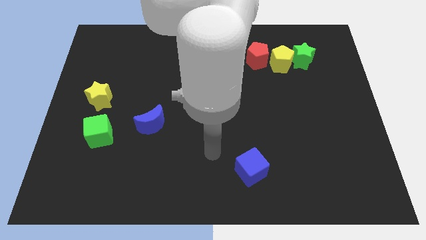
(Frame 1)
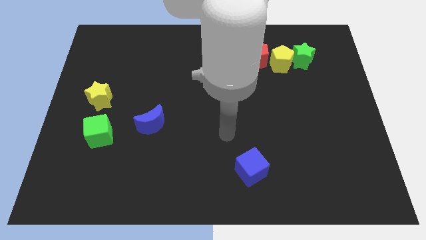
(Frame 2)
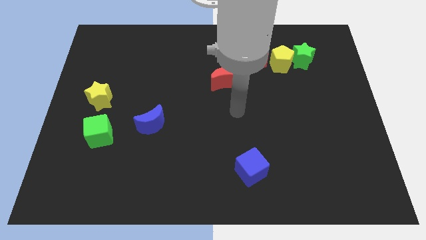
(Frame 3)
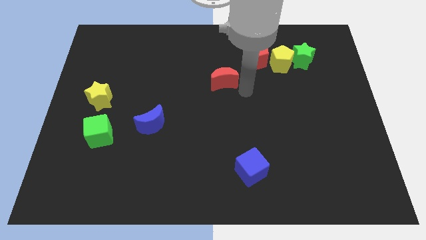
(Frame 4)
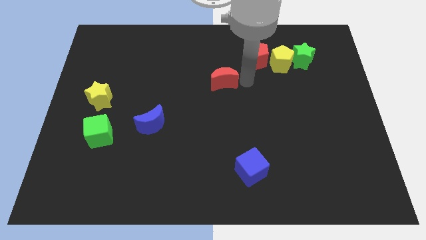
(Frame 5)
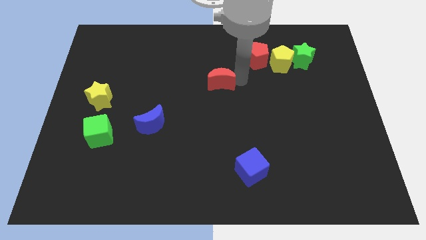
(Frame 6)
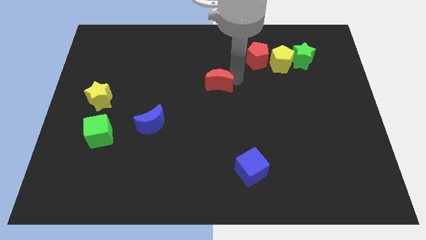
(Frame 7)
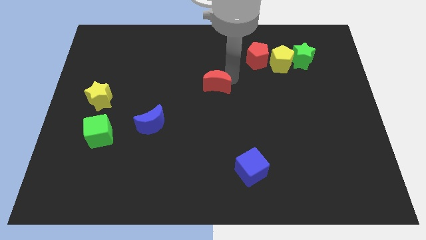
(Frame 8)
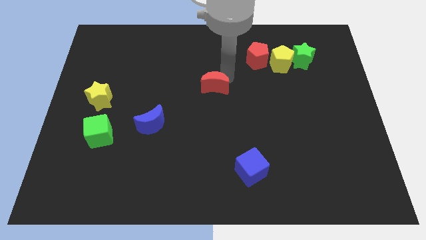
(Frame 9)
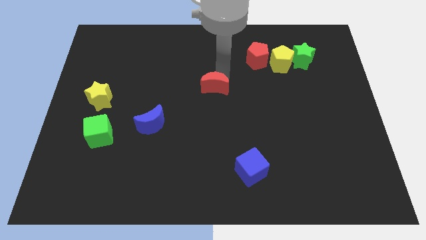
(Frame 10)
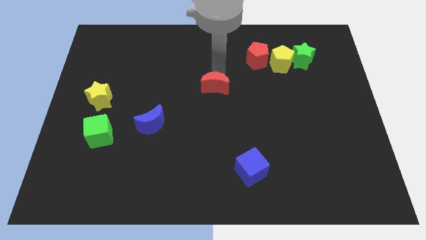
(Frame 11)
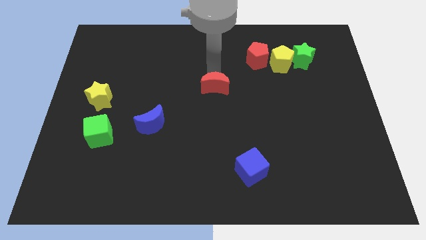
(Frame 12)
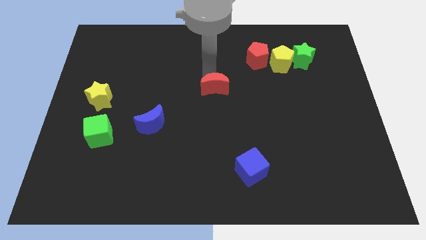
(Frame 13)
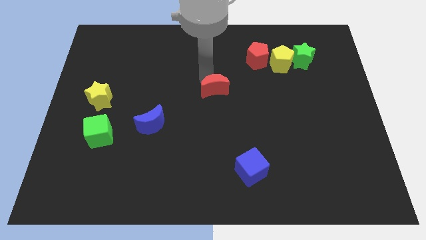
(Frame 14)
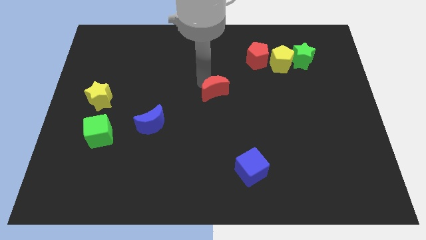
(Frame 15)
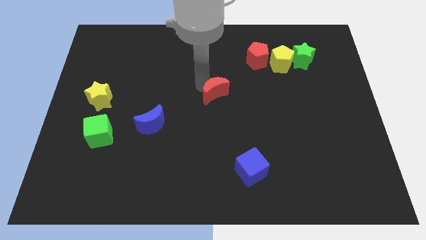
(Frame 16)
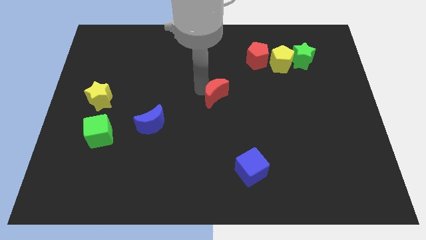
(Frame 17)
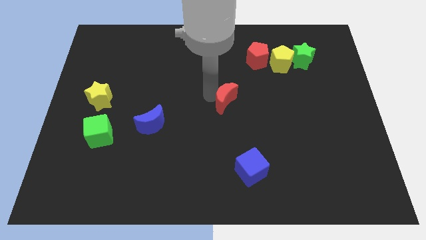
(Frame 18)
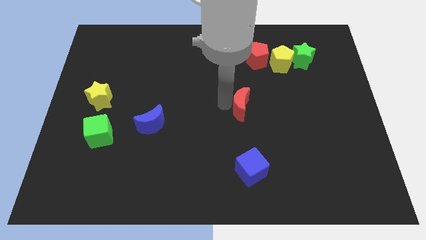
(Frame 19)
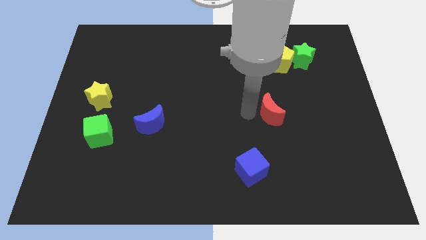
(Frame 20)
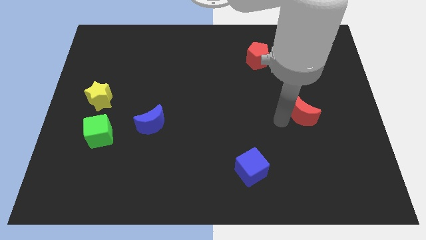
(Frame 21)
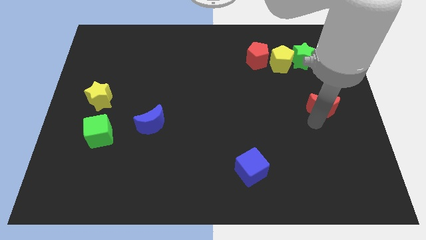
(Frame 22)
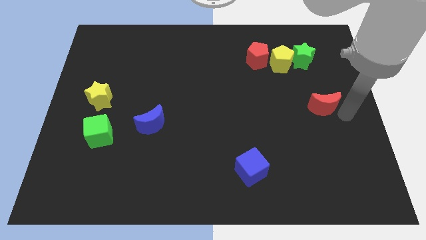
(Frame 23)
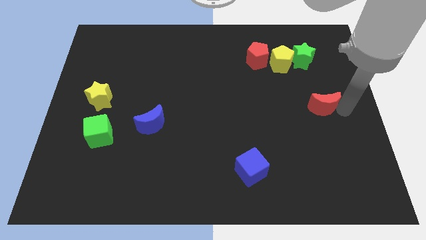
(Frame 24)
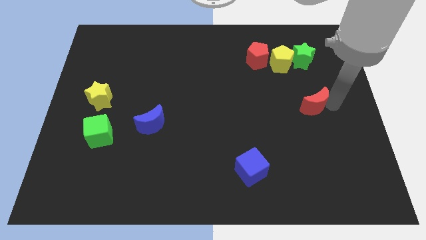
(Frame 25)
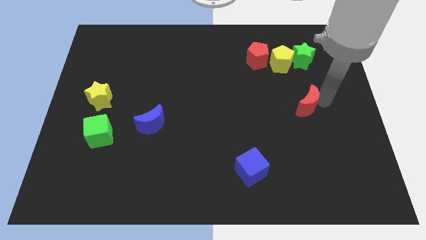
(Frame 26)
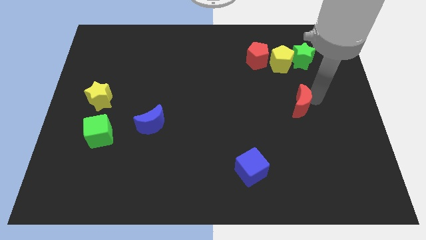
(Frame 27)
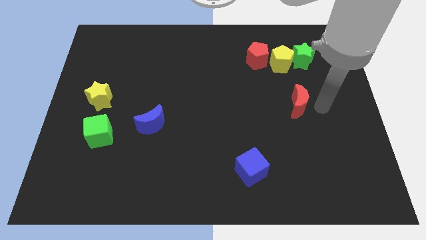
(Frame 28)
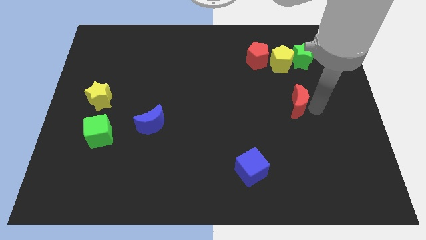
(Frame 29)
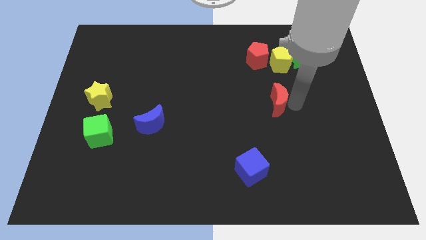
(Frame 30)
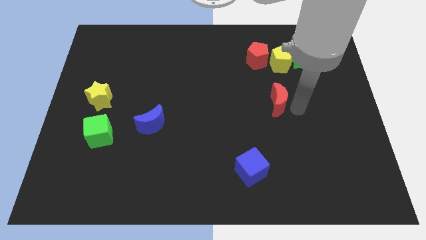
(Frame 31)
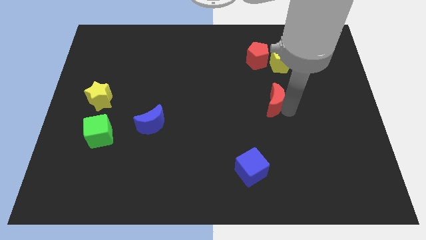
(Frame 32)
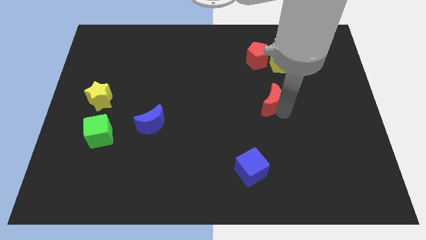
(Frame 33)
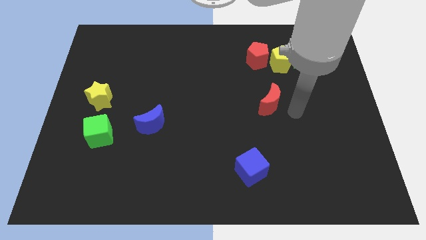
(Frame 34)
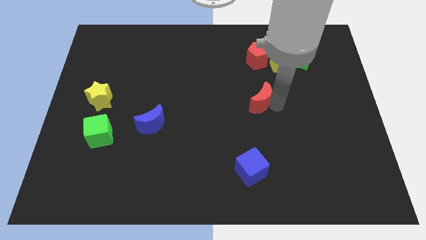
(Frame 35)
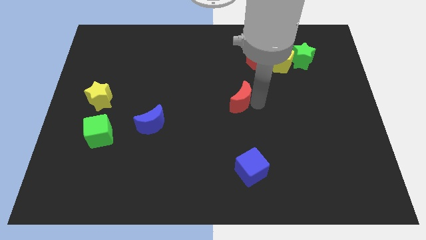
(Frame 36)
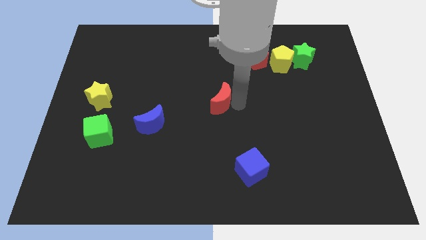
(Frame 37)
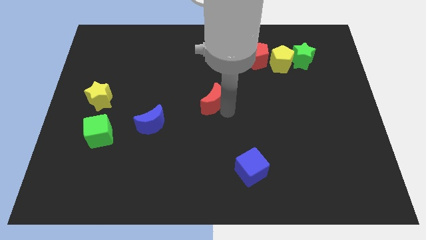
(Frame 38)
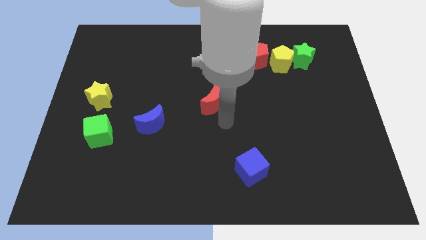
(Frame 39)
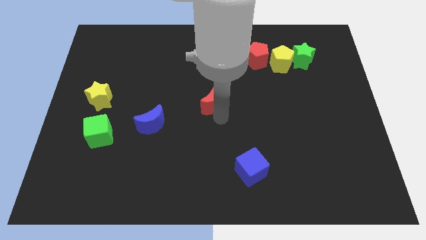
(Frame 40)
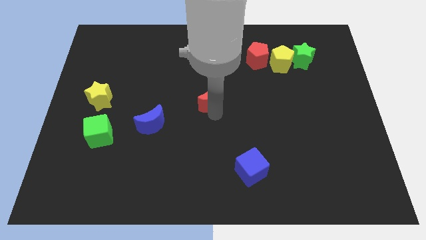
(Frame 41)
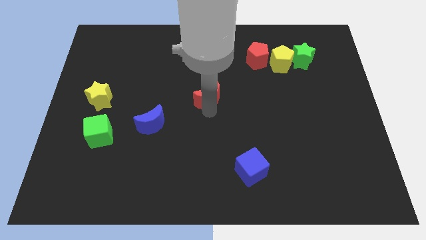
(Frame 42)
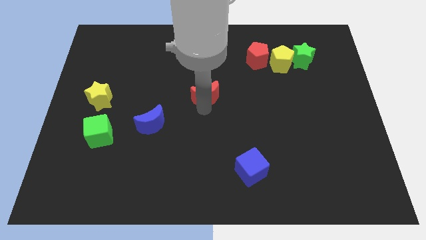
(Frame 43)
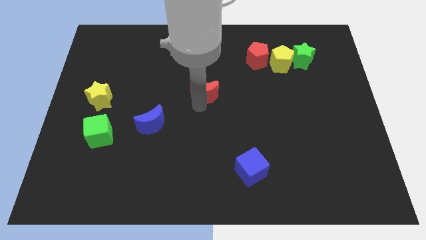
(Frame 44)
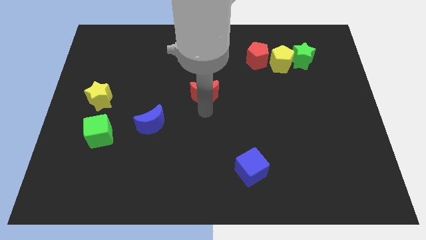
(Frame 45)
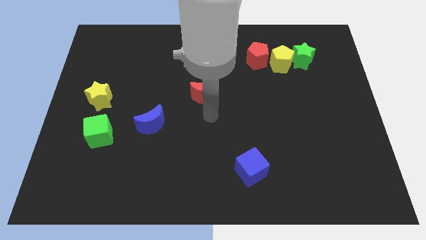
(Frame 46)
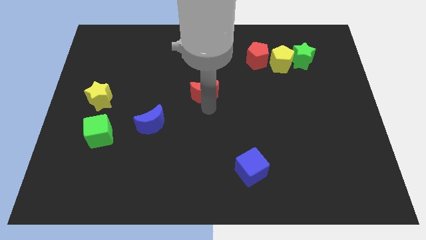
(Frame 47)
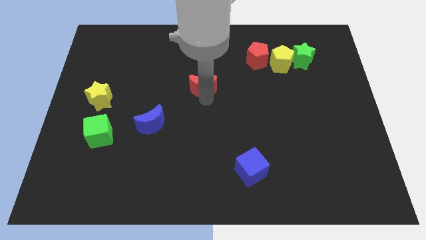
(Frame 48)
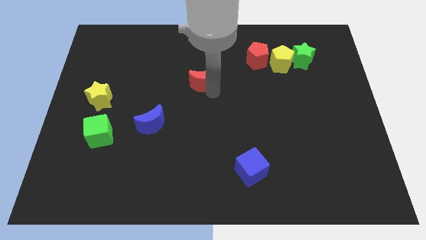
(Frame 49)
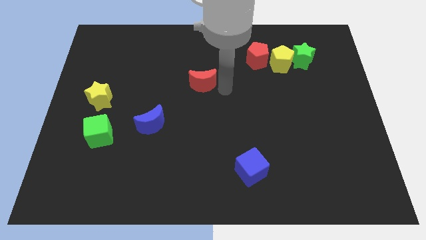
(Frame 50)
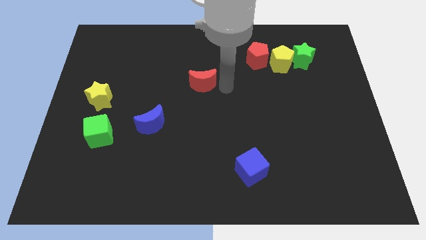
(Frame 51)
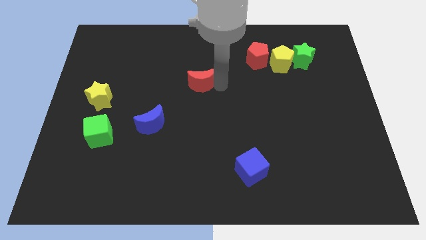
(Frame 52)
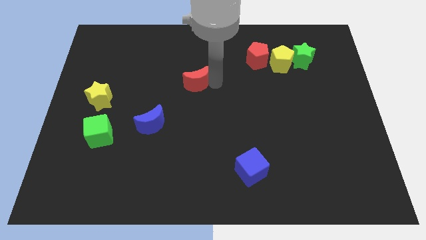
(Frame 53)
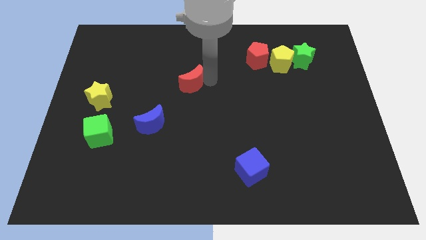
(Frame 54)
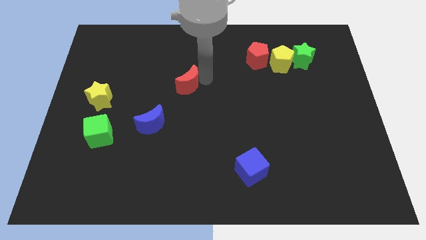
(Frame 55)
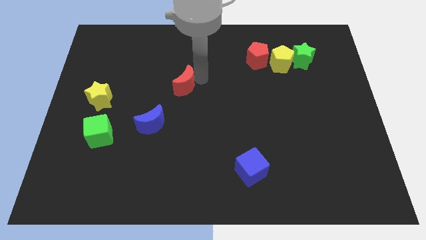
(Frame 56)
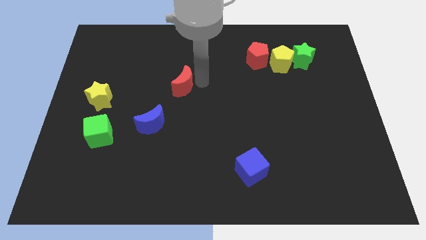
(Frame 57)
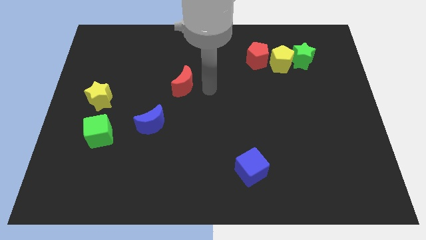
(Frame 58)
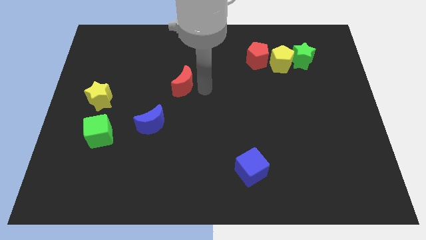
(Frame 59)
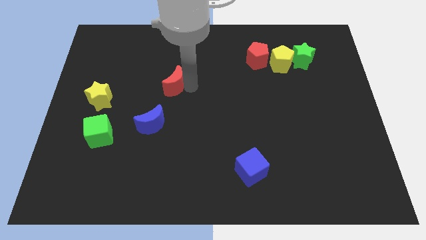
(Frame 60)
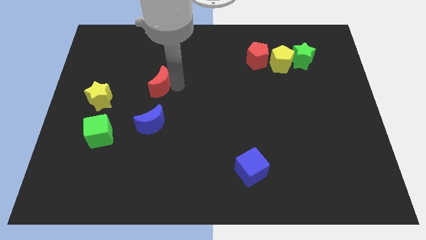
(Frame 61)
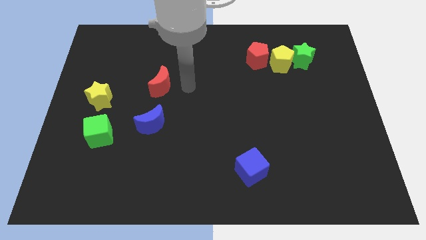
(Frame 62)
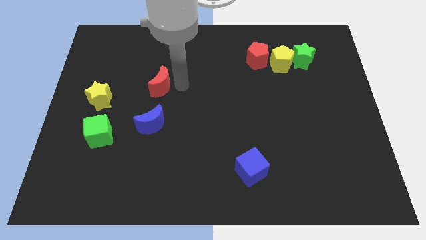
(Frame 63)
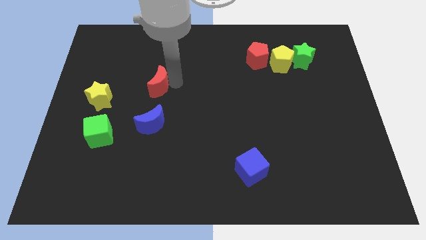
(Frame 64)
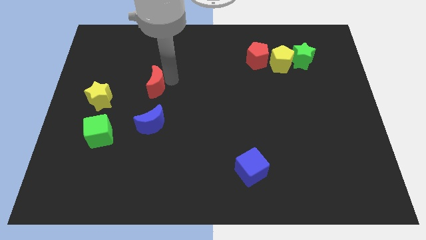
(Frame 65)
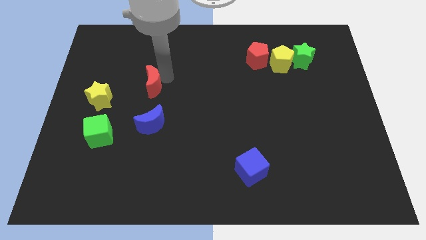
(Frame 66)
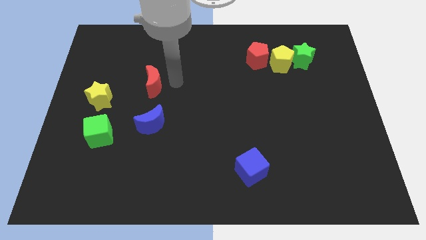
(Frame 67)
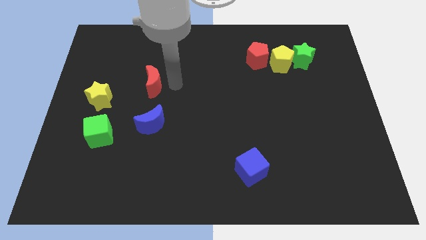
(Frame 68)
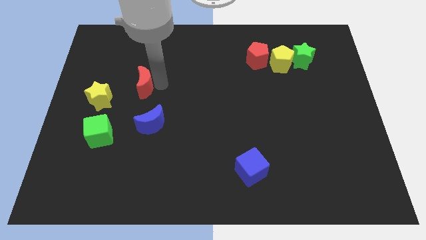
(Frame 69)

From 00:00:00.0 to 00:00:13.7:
push the red moon to the top right of the yellow star
